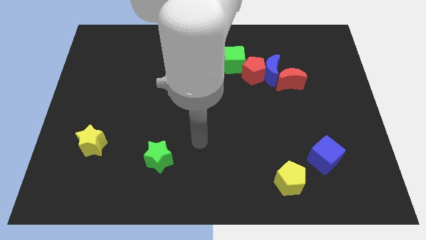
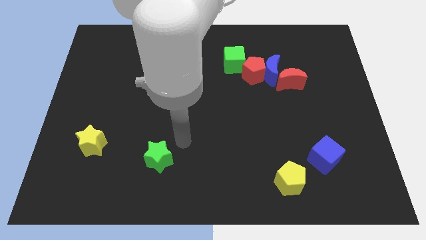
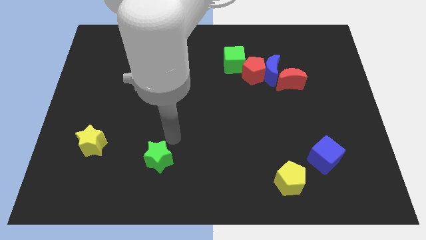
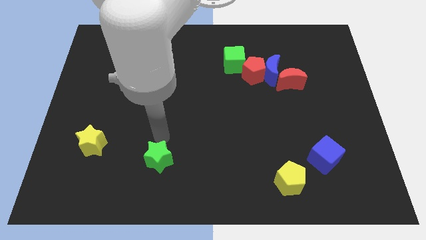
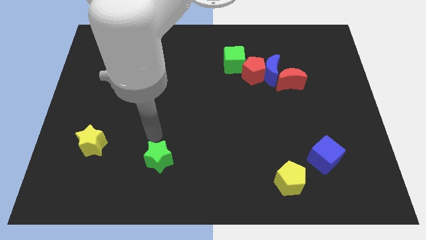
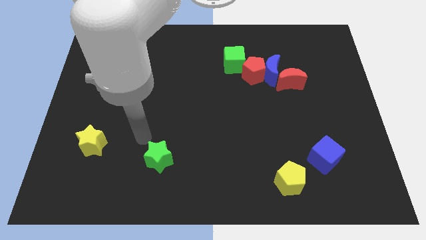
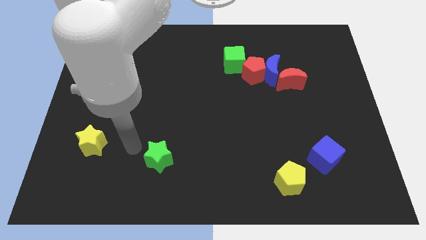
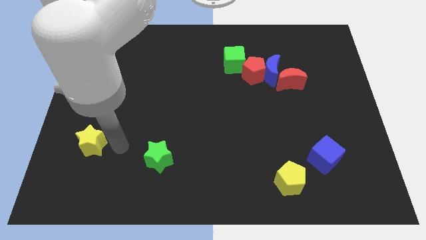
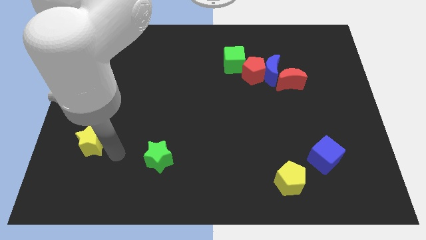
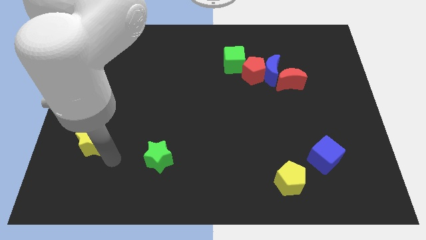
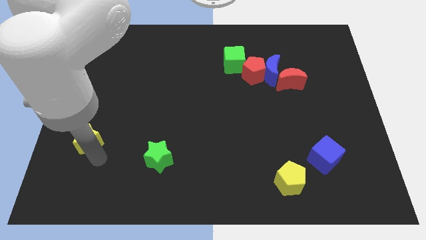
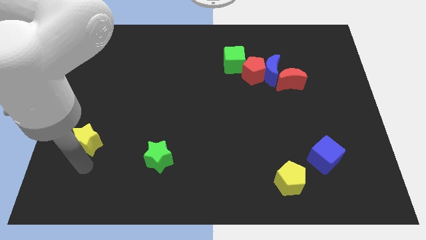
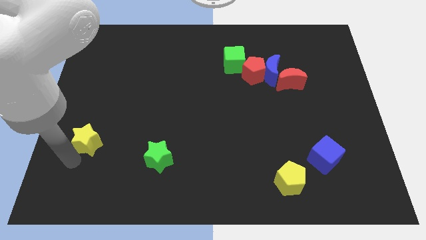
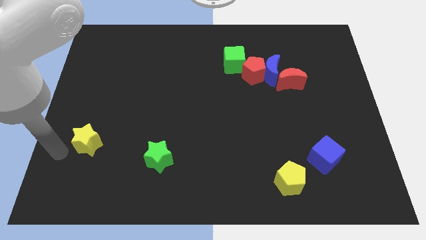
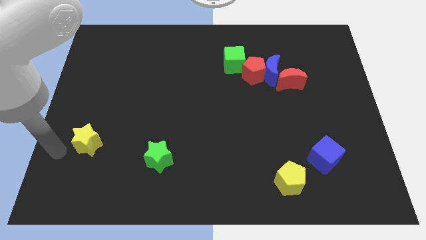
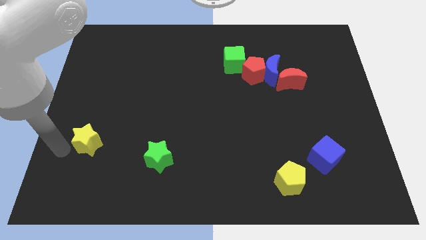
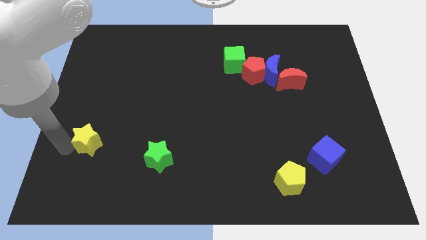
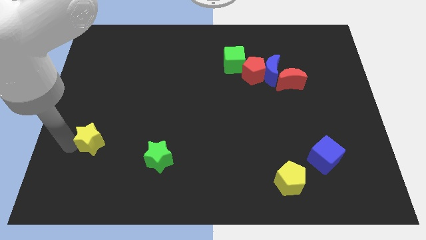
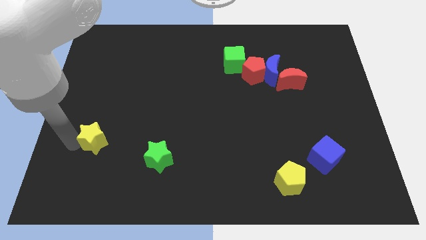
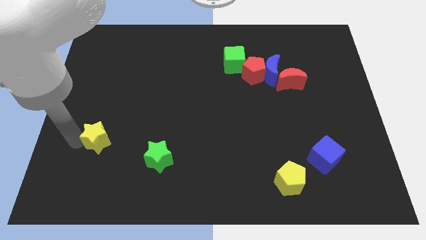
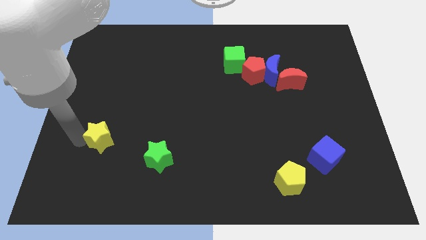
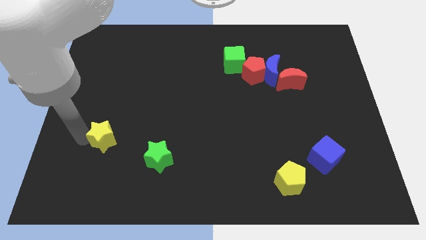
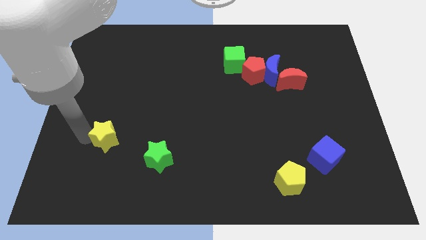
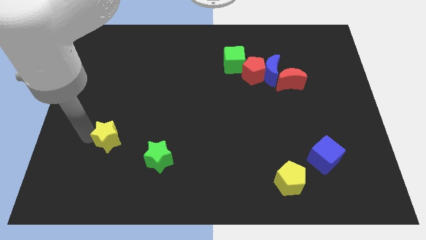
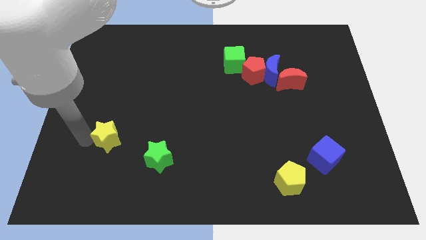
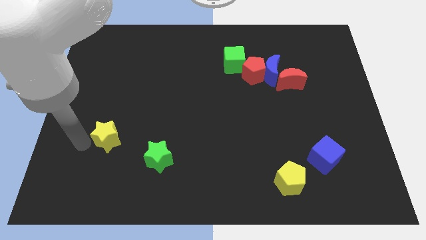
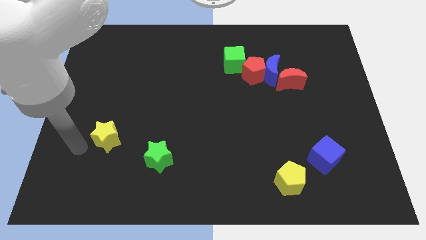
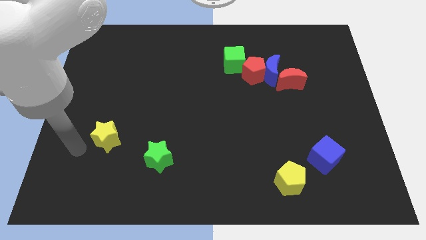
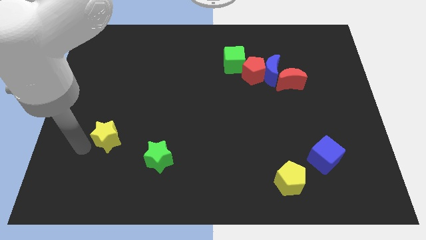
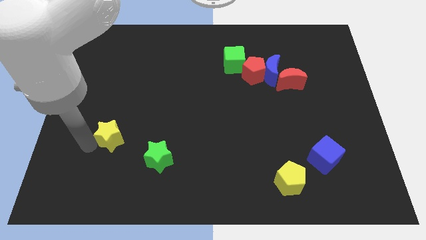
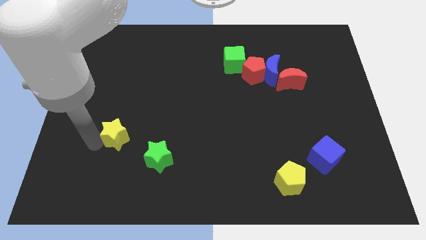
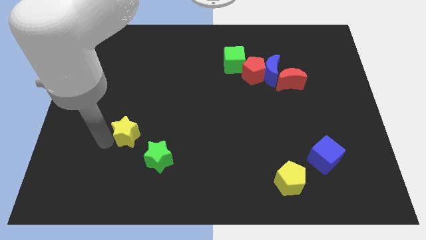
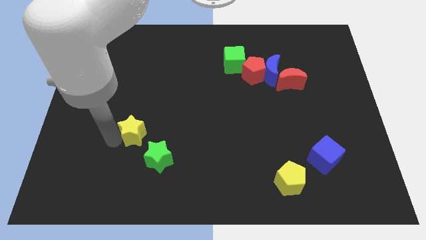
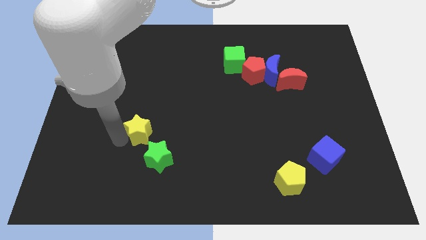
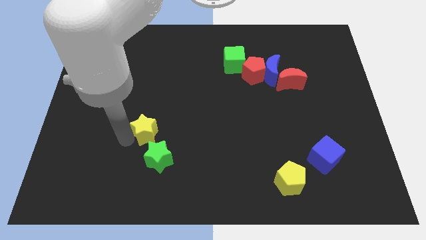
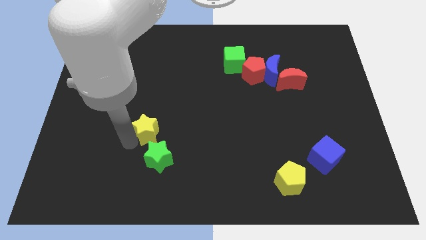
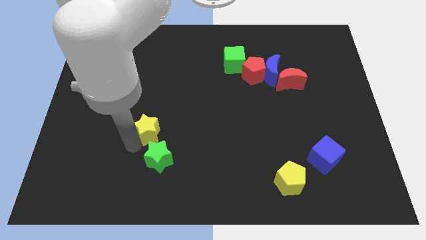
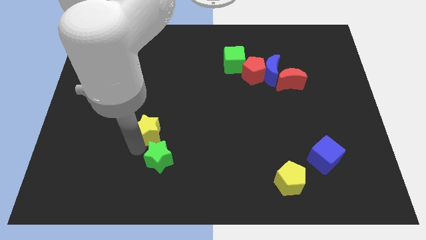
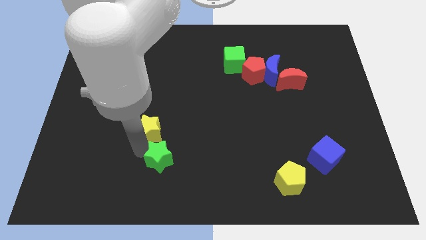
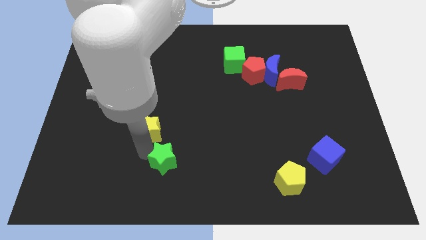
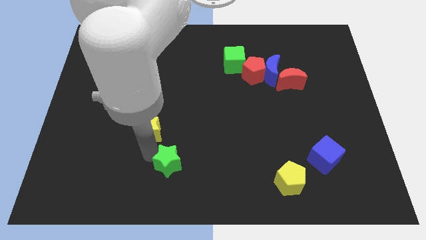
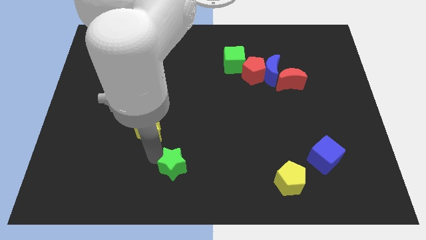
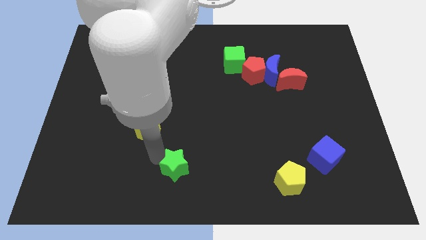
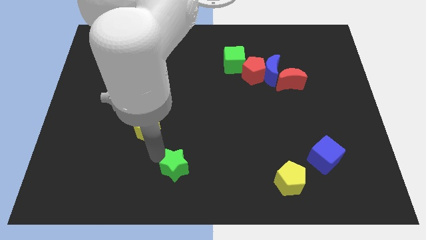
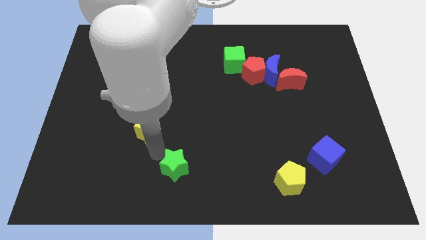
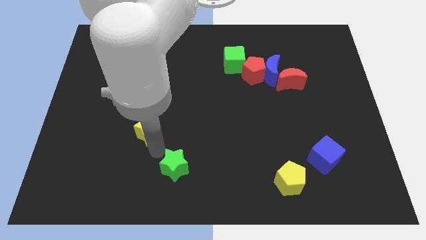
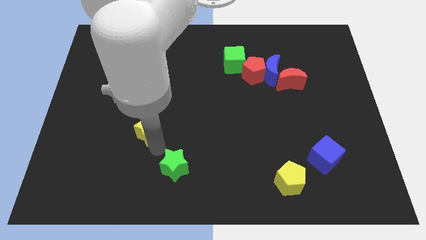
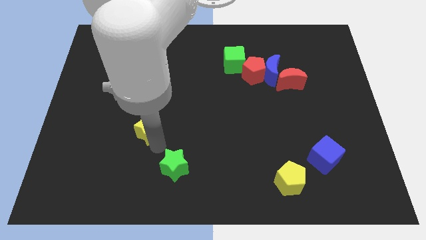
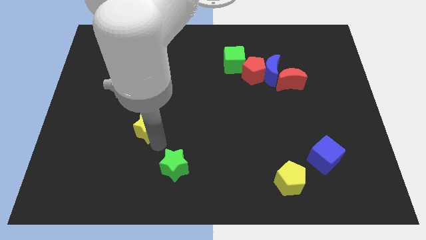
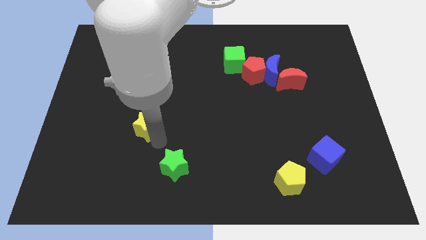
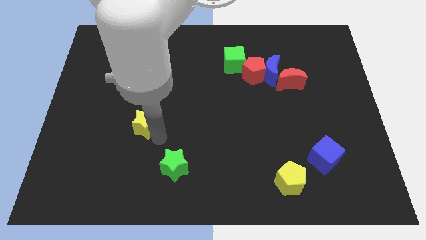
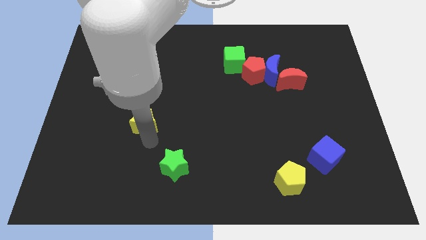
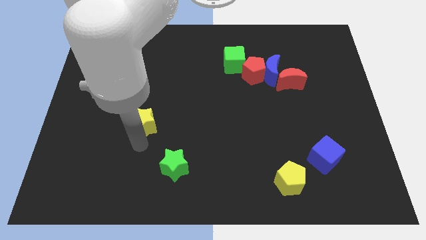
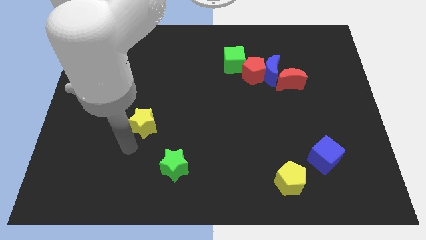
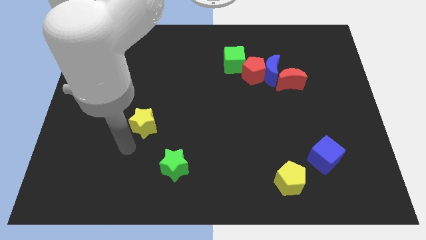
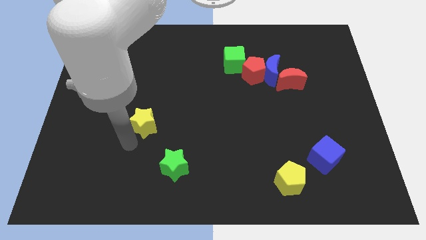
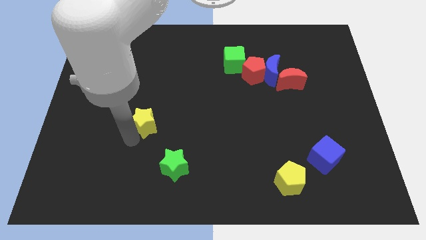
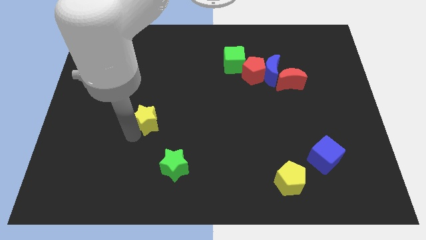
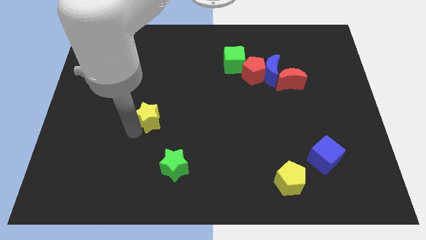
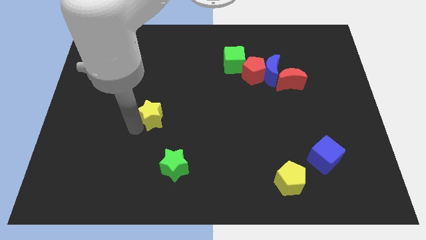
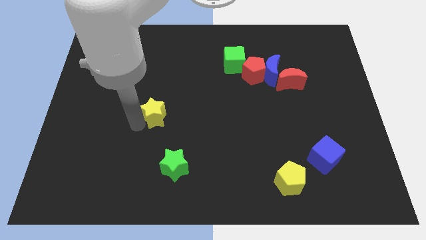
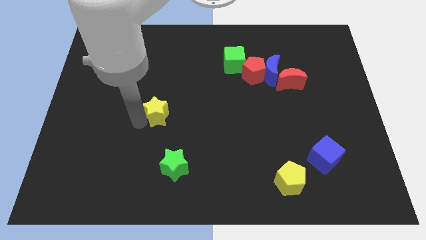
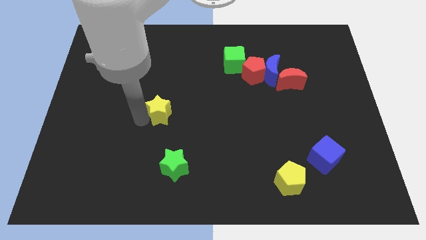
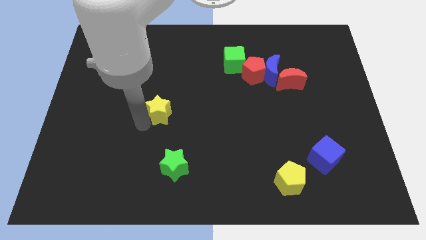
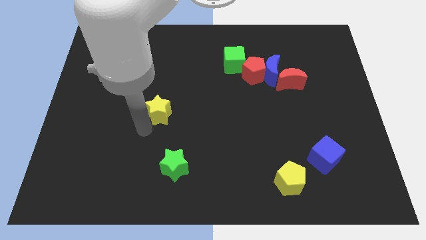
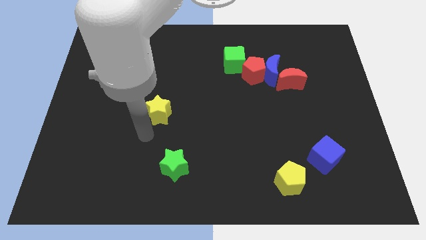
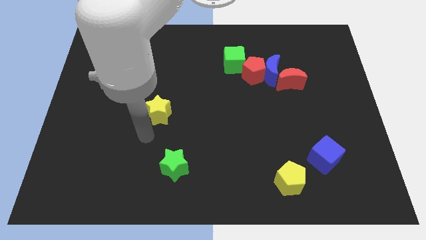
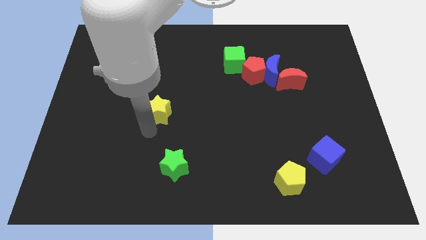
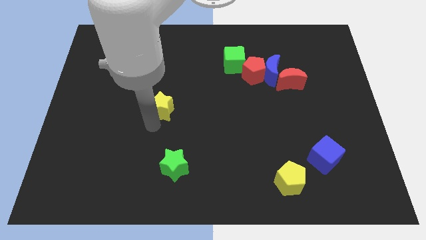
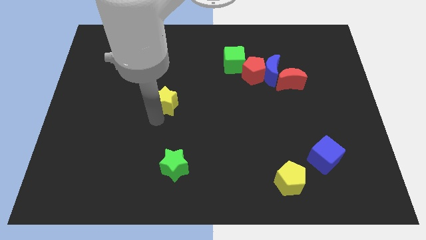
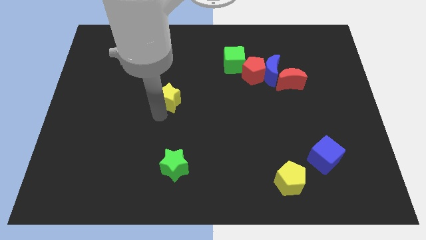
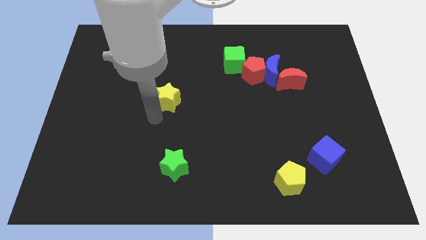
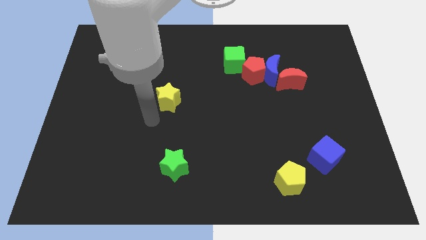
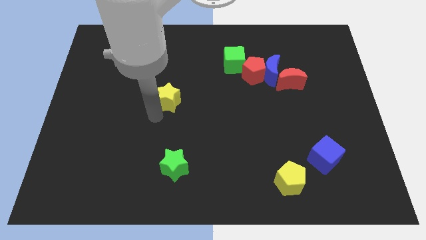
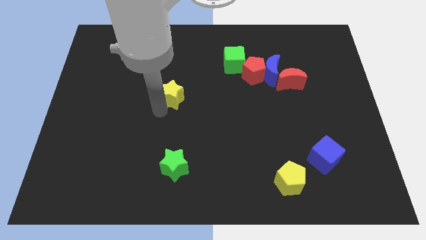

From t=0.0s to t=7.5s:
push the yellow star diagonally upwards and right

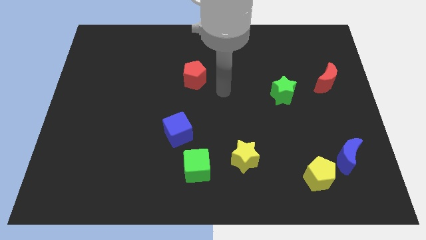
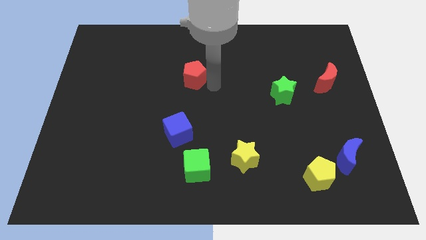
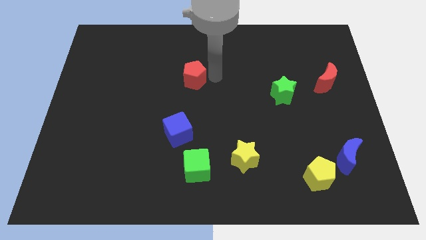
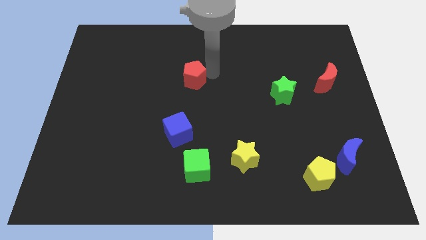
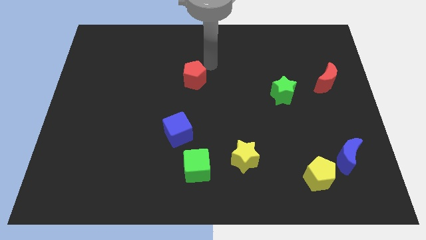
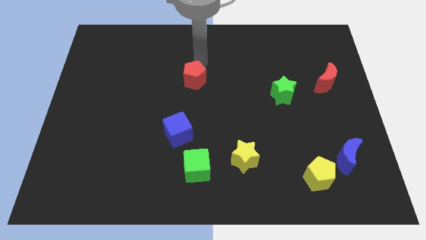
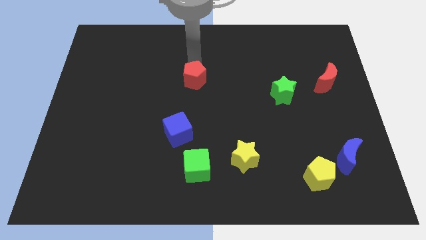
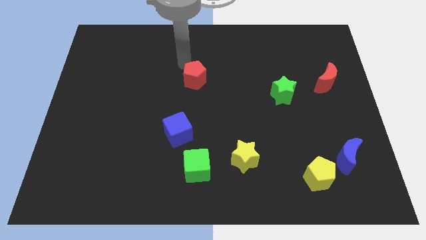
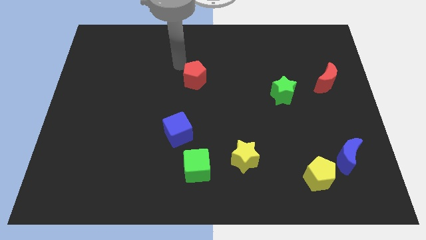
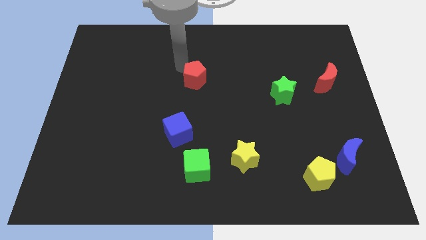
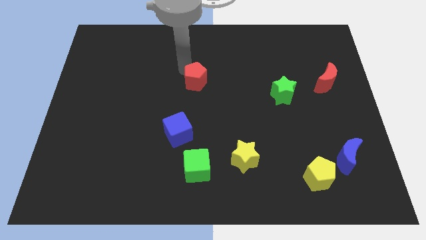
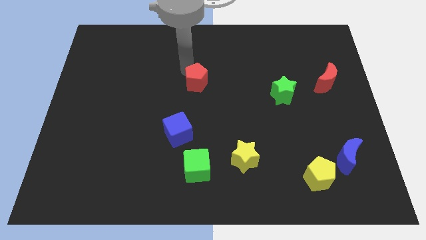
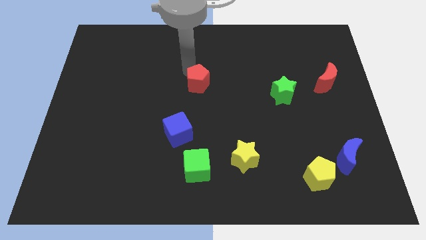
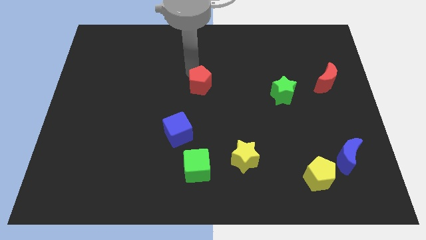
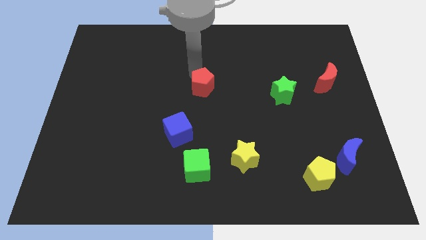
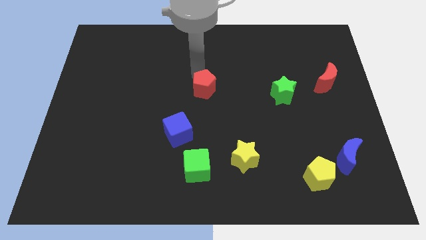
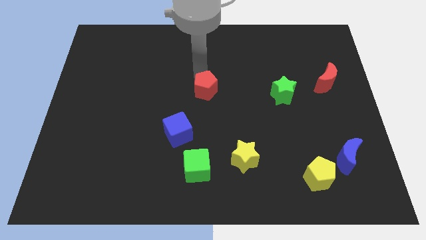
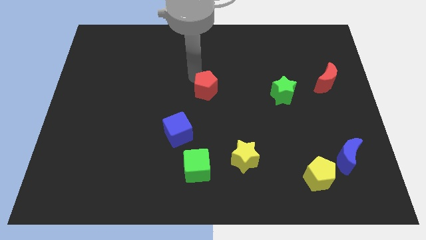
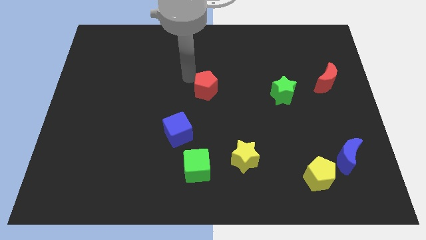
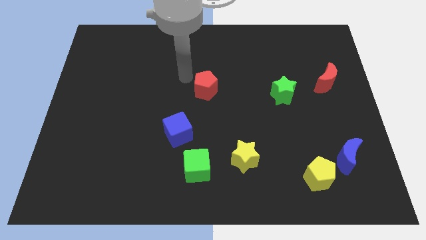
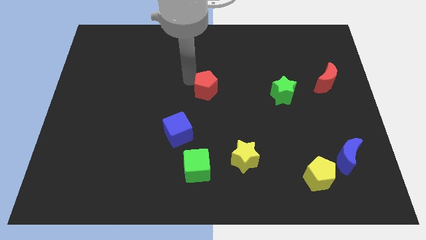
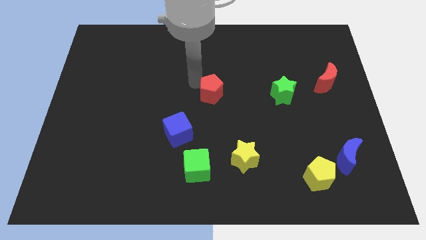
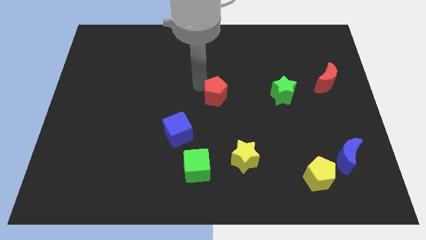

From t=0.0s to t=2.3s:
slide the red pentagon a bit downwards and right
